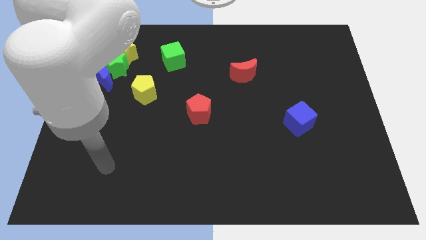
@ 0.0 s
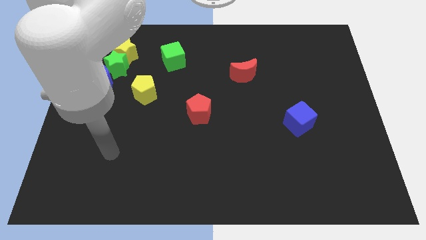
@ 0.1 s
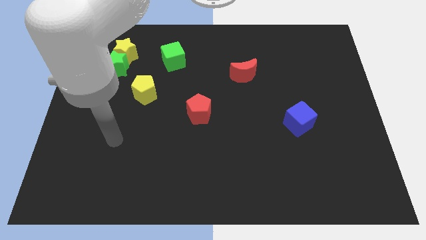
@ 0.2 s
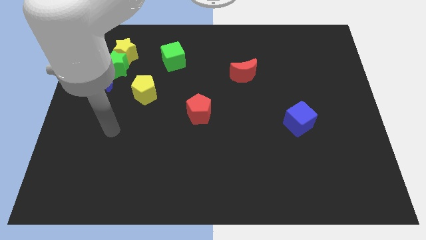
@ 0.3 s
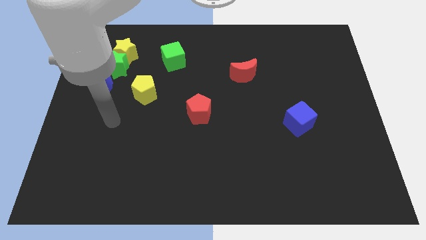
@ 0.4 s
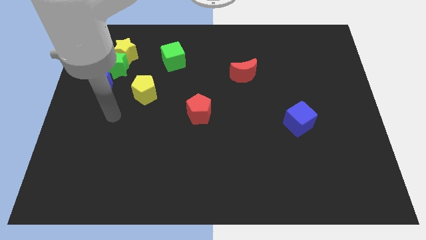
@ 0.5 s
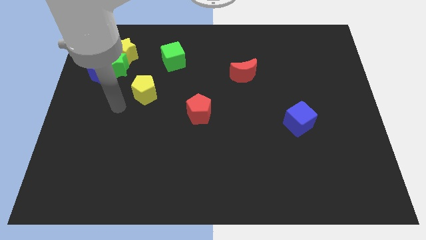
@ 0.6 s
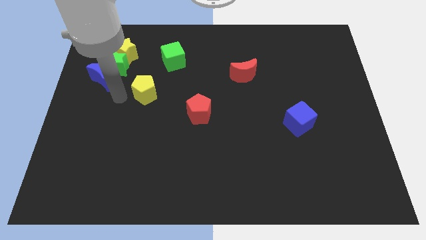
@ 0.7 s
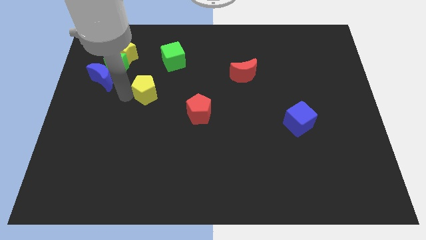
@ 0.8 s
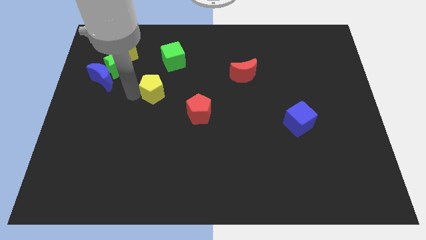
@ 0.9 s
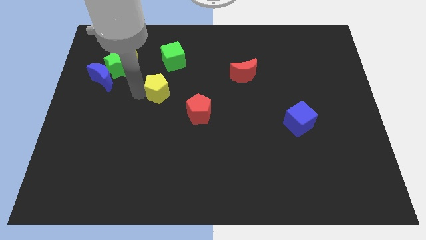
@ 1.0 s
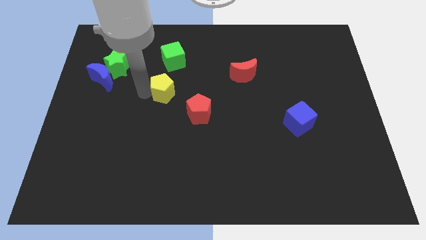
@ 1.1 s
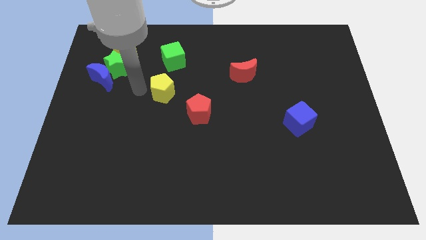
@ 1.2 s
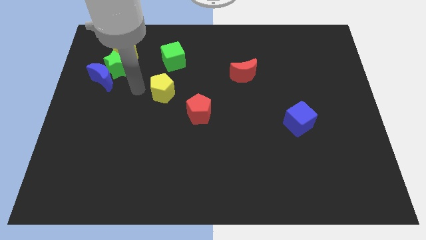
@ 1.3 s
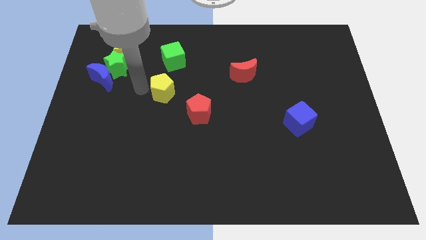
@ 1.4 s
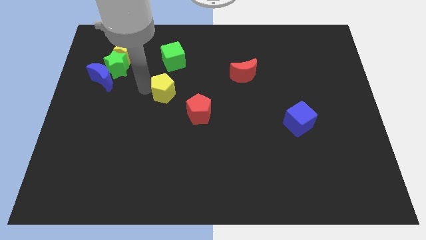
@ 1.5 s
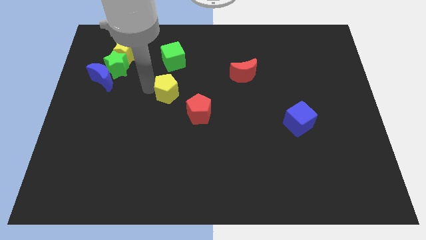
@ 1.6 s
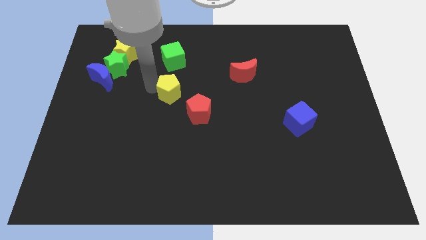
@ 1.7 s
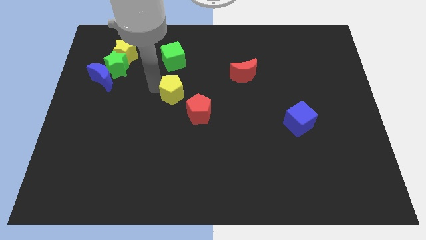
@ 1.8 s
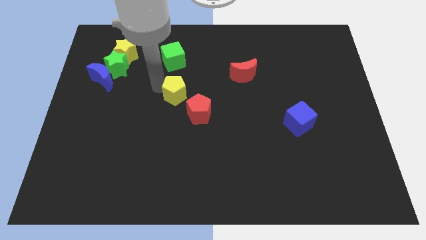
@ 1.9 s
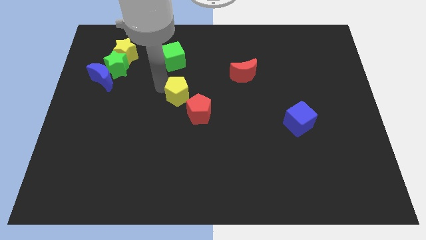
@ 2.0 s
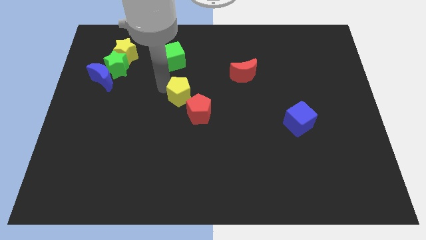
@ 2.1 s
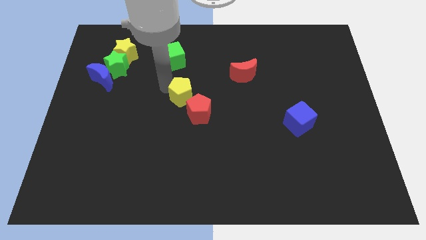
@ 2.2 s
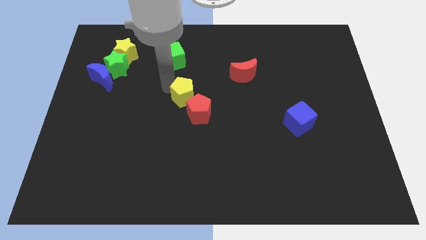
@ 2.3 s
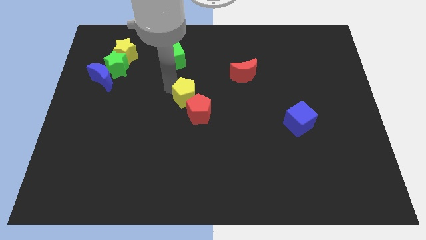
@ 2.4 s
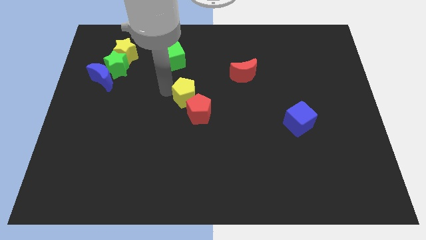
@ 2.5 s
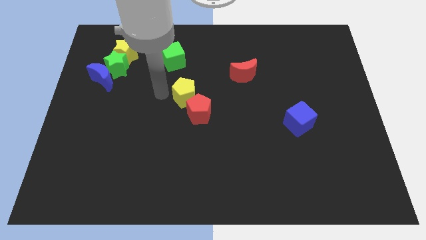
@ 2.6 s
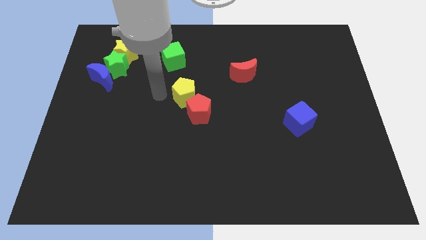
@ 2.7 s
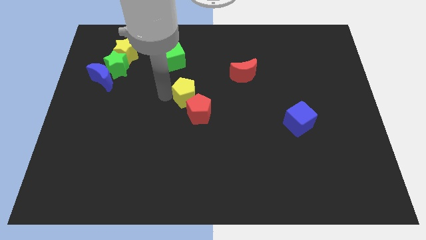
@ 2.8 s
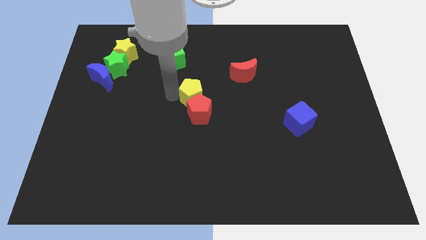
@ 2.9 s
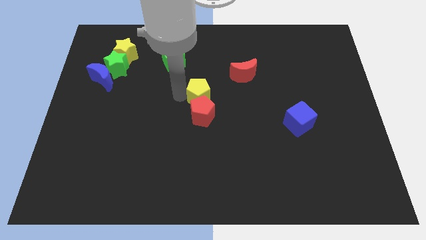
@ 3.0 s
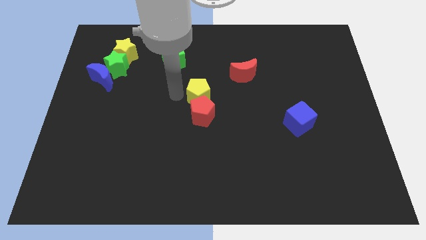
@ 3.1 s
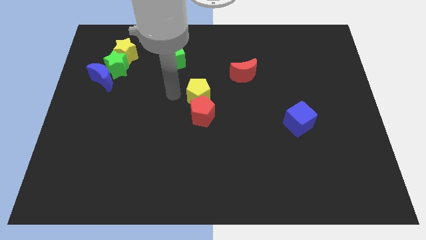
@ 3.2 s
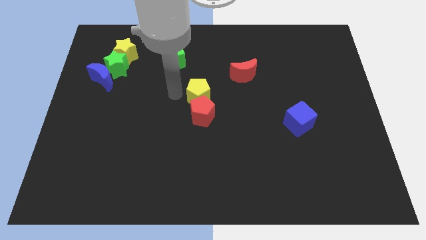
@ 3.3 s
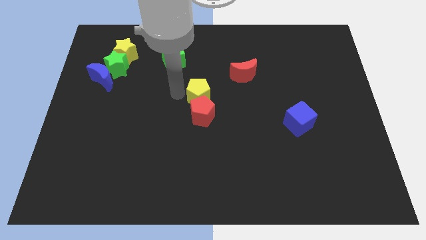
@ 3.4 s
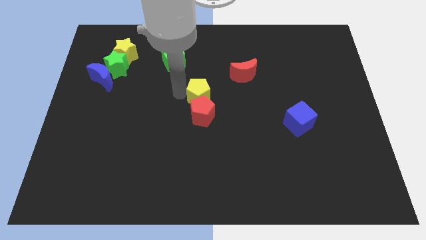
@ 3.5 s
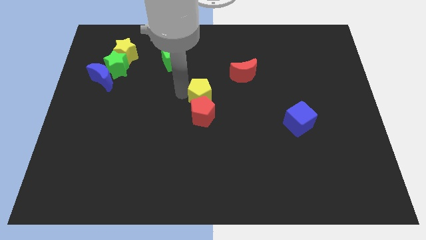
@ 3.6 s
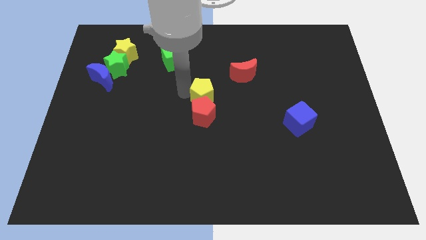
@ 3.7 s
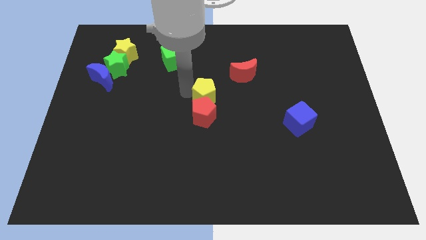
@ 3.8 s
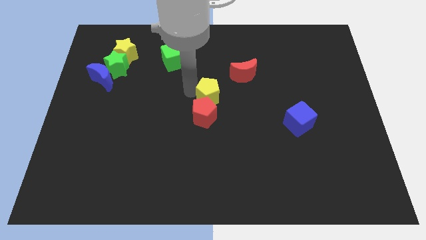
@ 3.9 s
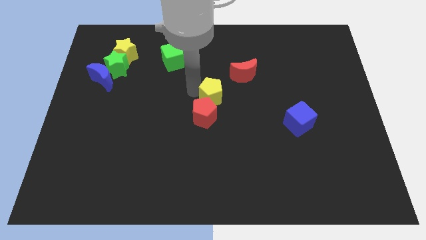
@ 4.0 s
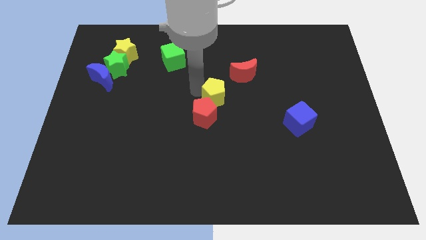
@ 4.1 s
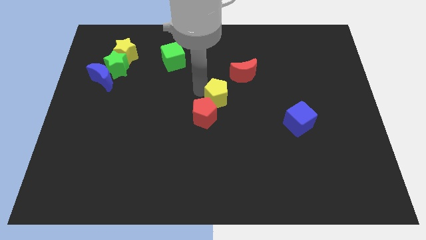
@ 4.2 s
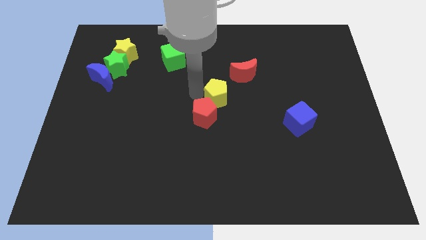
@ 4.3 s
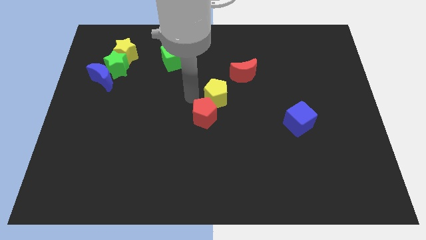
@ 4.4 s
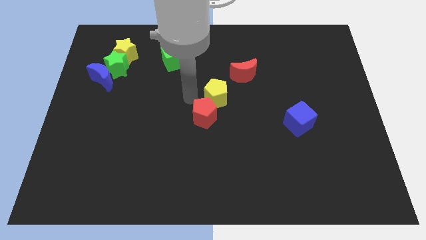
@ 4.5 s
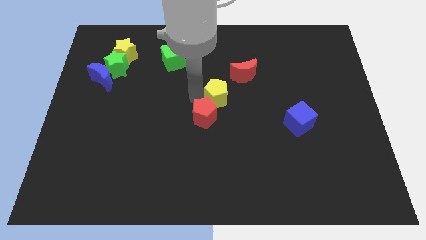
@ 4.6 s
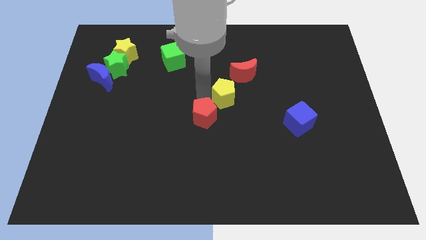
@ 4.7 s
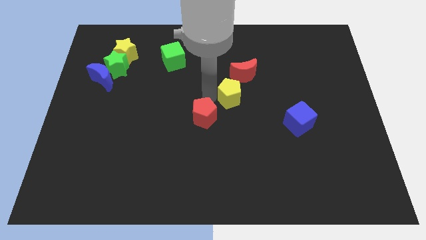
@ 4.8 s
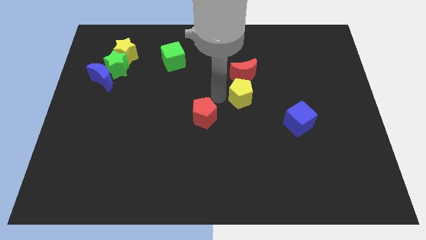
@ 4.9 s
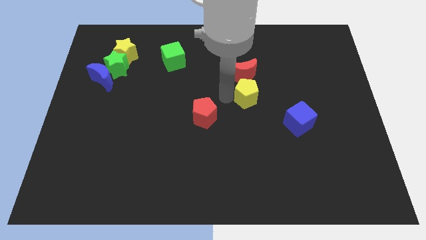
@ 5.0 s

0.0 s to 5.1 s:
move the yellow pentagon to the bottom right of the red moon

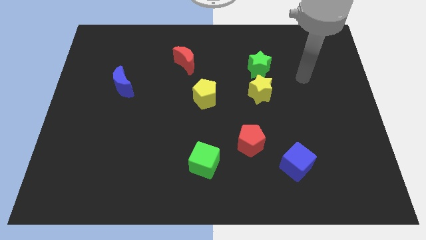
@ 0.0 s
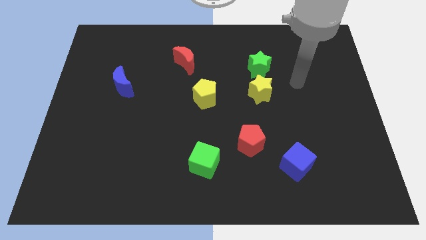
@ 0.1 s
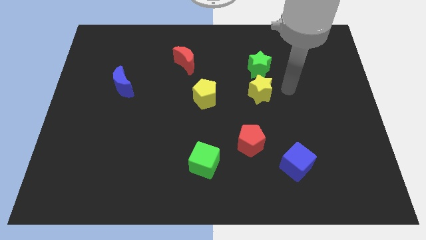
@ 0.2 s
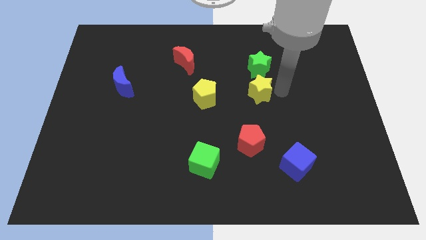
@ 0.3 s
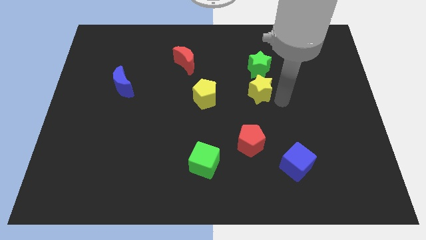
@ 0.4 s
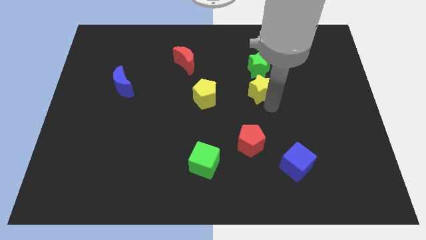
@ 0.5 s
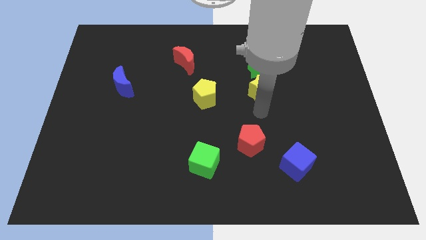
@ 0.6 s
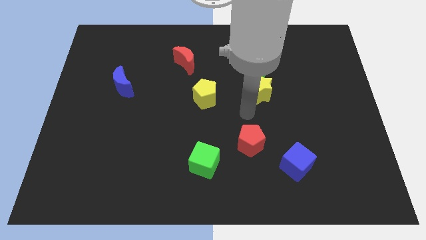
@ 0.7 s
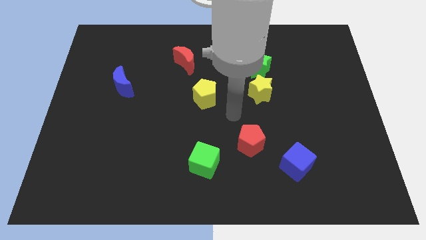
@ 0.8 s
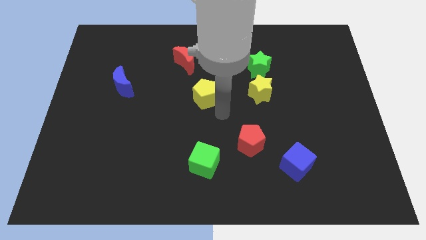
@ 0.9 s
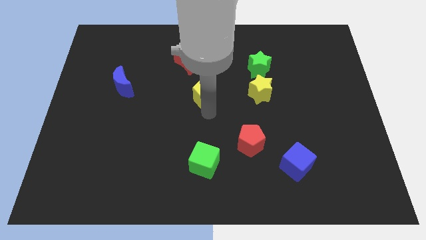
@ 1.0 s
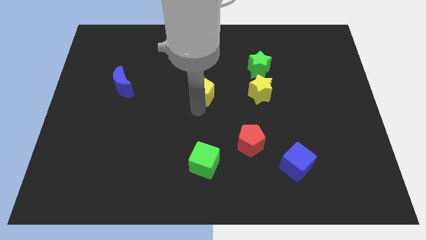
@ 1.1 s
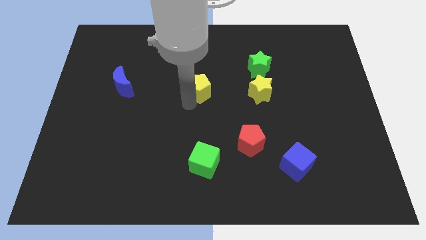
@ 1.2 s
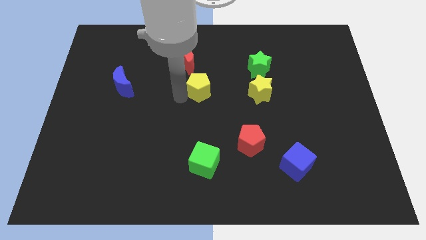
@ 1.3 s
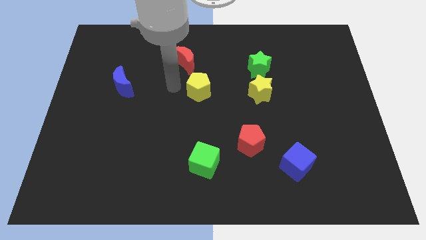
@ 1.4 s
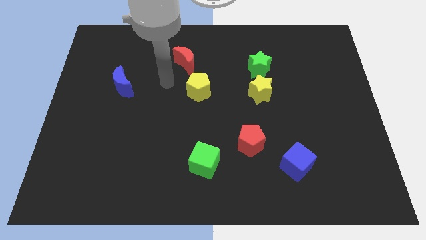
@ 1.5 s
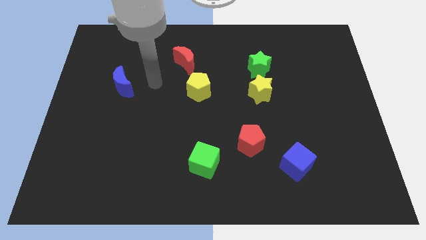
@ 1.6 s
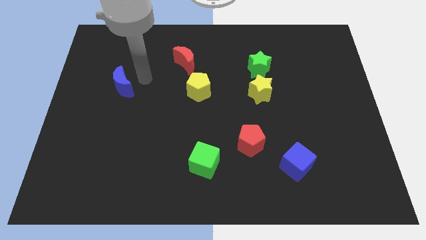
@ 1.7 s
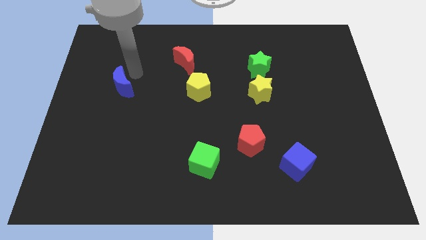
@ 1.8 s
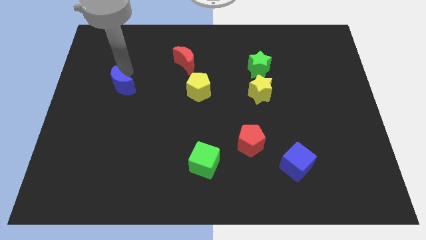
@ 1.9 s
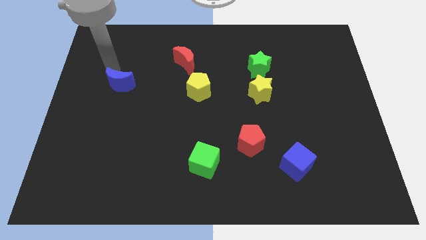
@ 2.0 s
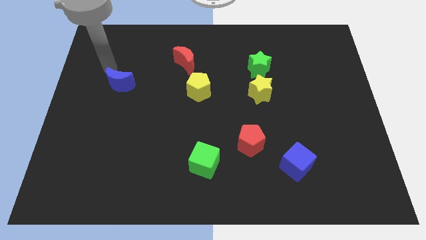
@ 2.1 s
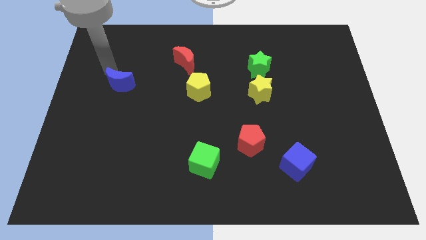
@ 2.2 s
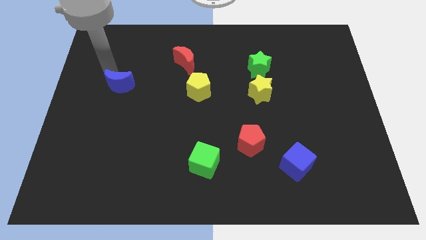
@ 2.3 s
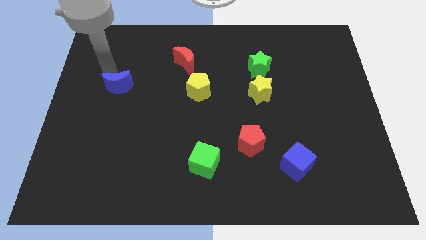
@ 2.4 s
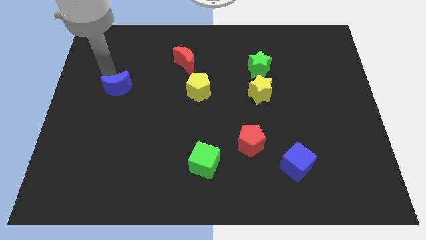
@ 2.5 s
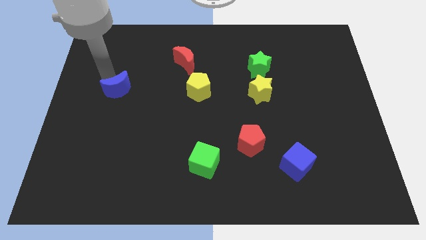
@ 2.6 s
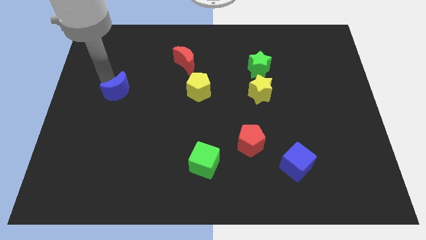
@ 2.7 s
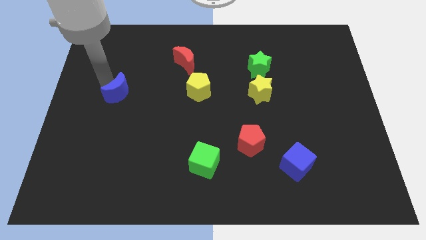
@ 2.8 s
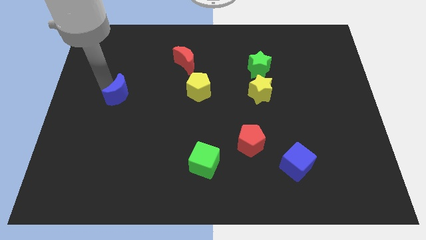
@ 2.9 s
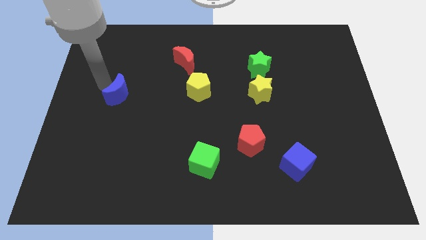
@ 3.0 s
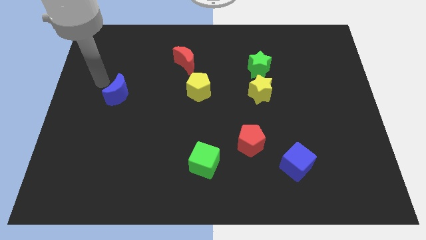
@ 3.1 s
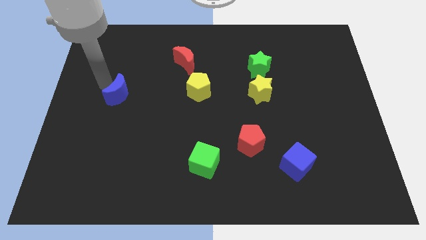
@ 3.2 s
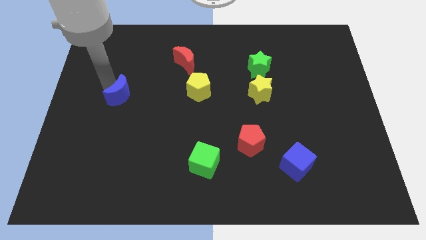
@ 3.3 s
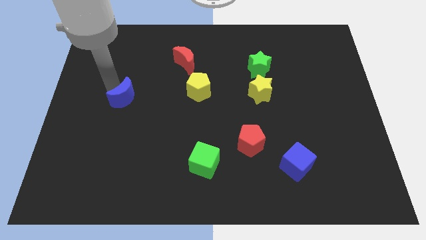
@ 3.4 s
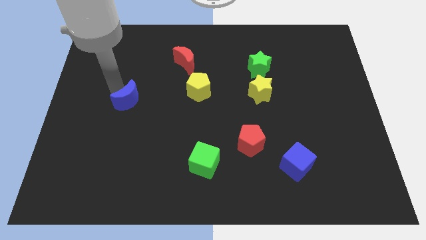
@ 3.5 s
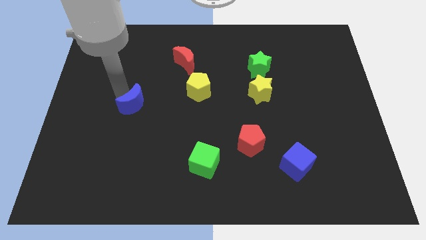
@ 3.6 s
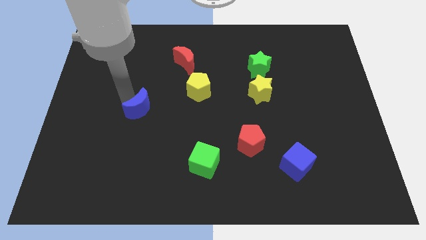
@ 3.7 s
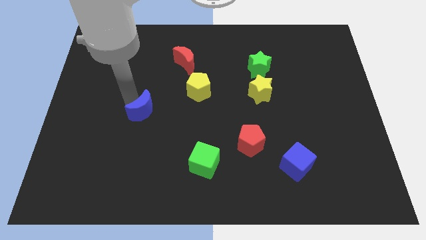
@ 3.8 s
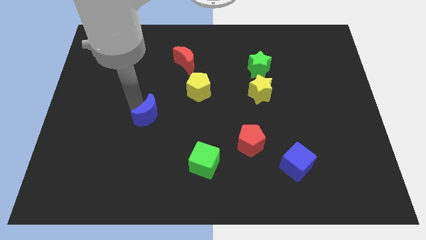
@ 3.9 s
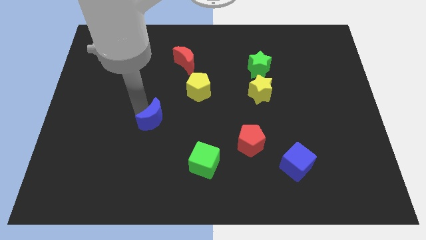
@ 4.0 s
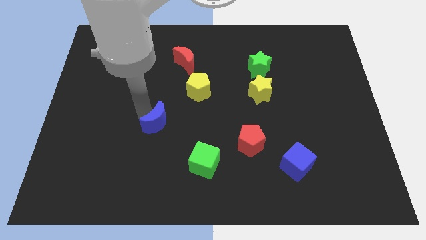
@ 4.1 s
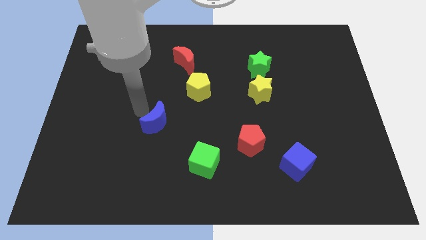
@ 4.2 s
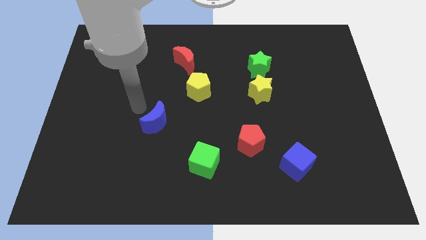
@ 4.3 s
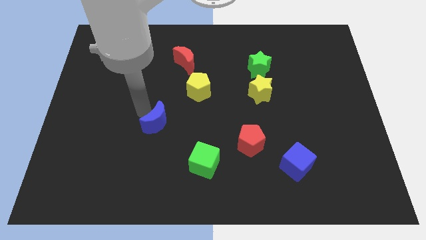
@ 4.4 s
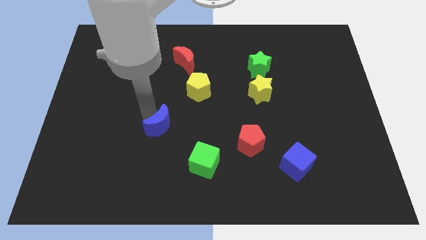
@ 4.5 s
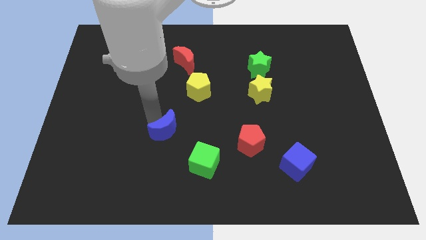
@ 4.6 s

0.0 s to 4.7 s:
push the blue moon to the top left of the green cube
